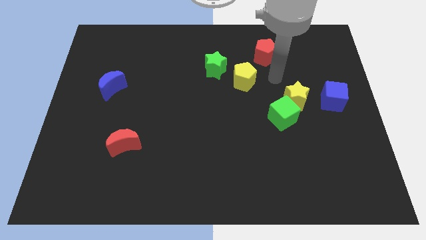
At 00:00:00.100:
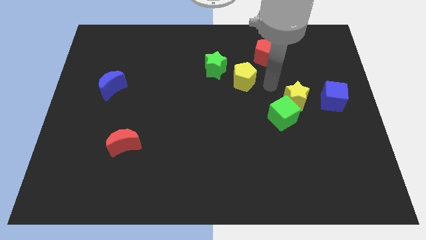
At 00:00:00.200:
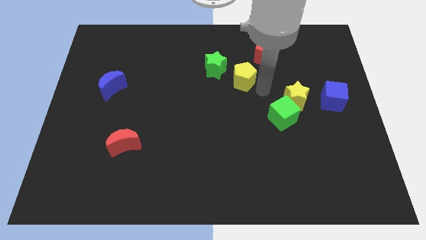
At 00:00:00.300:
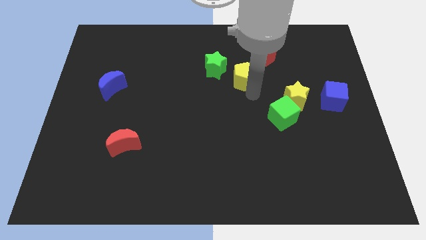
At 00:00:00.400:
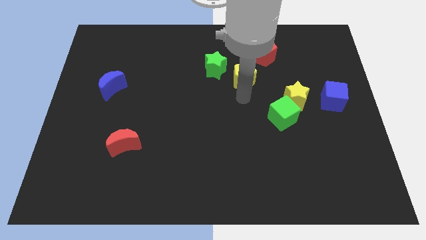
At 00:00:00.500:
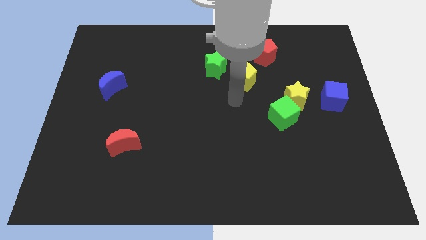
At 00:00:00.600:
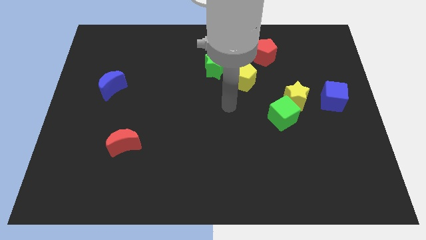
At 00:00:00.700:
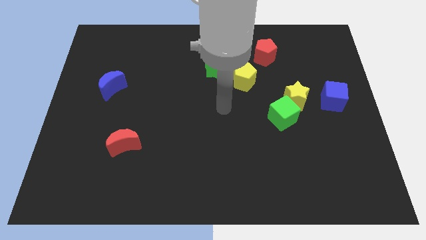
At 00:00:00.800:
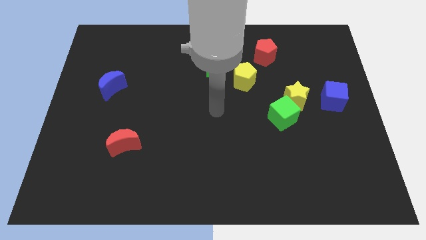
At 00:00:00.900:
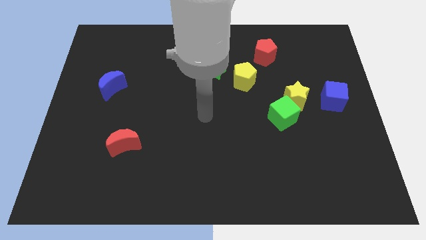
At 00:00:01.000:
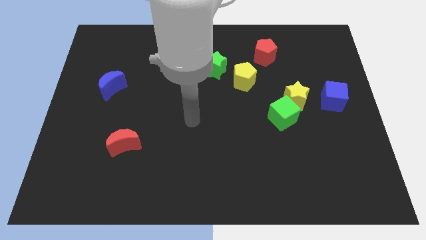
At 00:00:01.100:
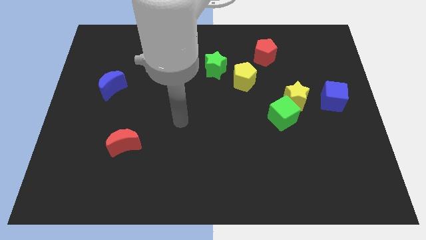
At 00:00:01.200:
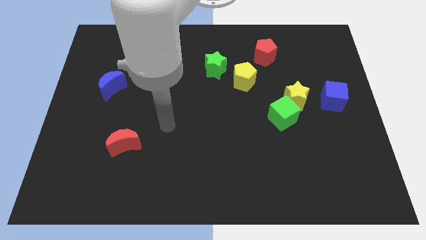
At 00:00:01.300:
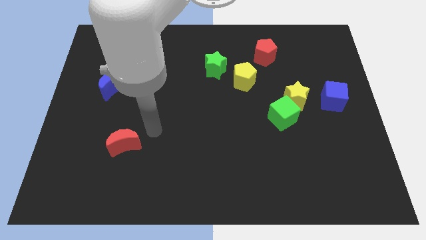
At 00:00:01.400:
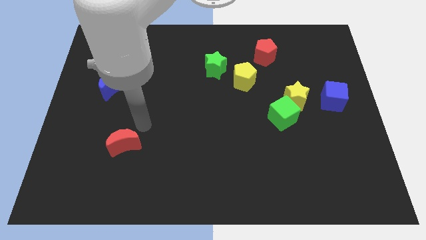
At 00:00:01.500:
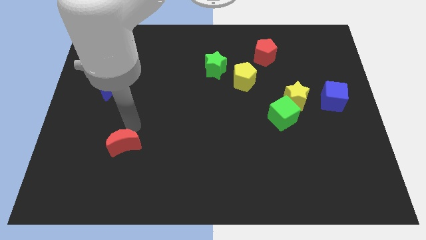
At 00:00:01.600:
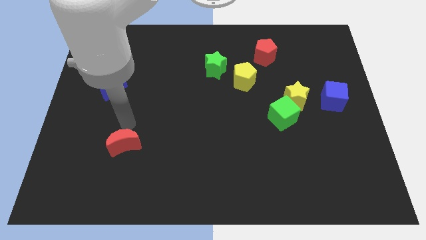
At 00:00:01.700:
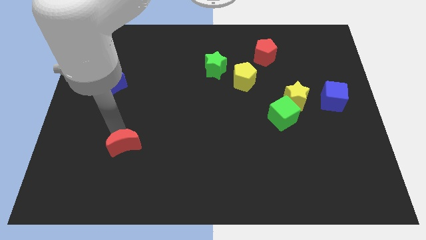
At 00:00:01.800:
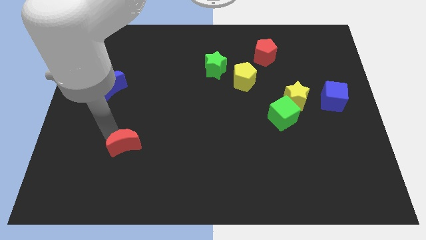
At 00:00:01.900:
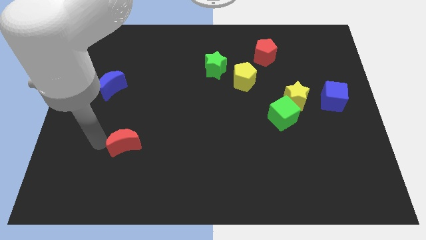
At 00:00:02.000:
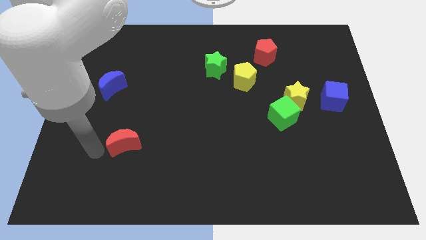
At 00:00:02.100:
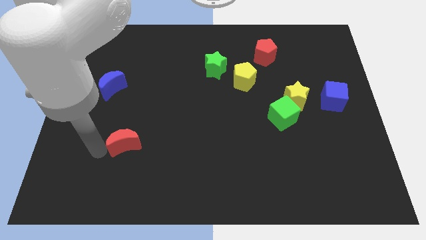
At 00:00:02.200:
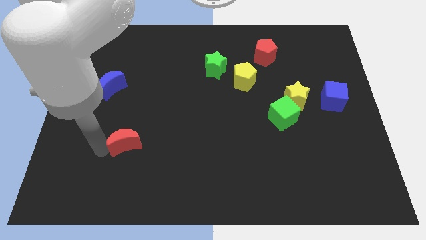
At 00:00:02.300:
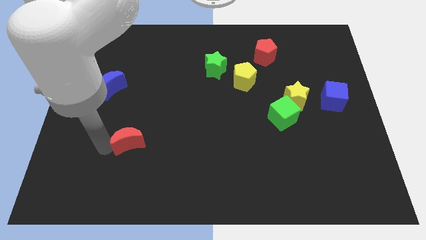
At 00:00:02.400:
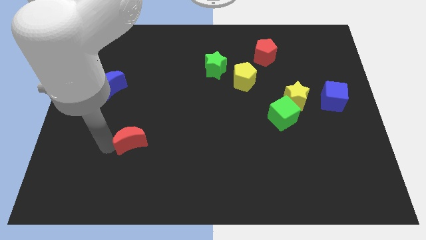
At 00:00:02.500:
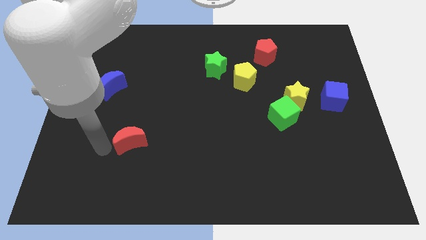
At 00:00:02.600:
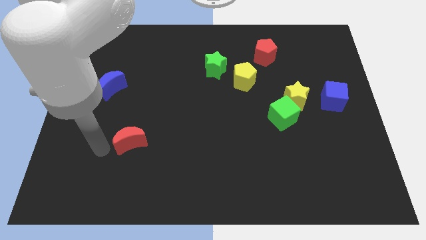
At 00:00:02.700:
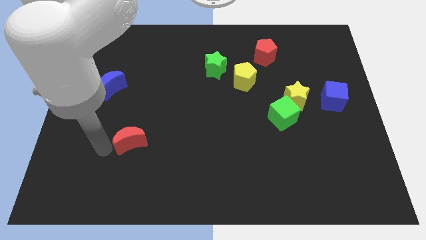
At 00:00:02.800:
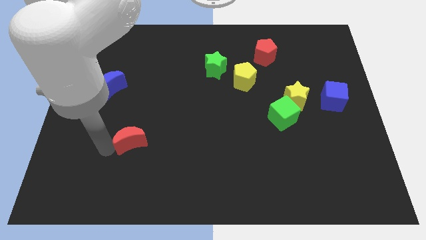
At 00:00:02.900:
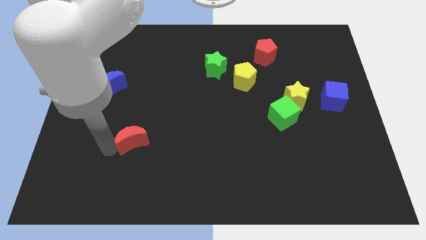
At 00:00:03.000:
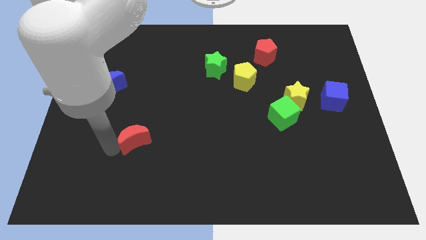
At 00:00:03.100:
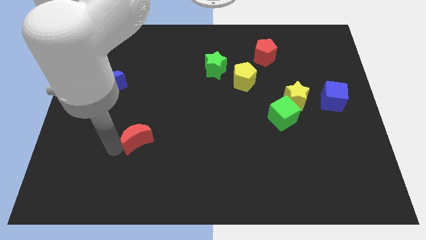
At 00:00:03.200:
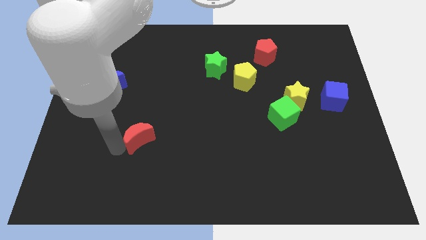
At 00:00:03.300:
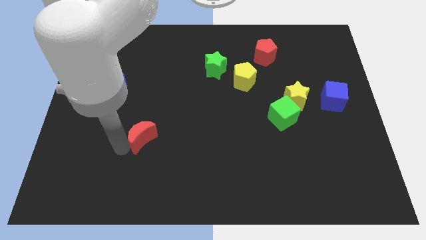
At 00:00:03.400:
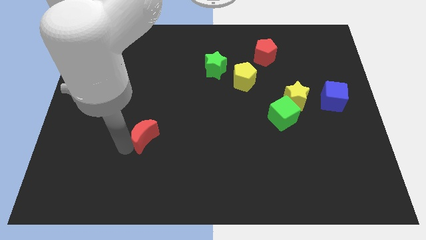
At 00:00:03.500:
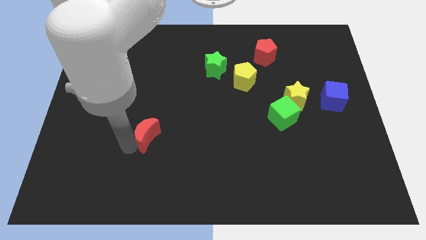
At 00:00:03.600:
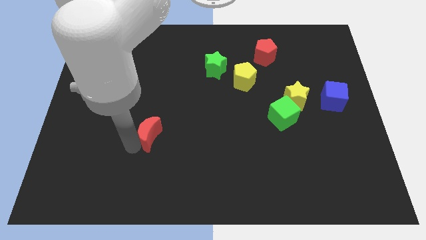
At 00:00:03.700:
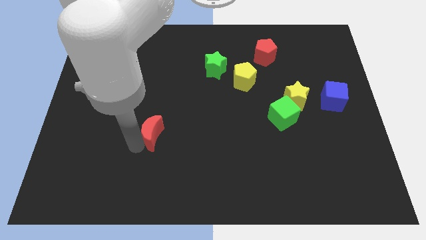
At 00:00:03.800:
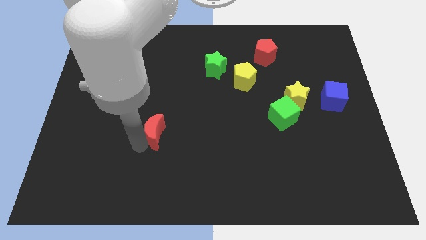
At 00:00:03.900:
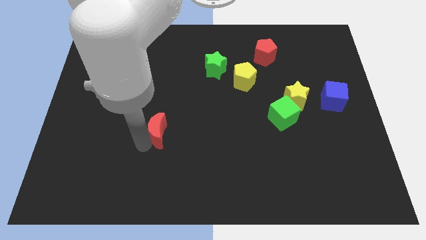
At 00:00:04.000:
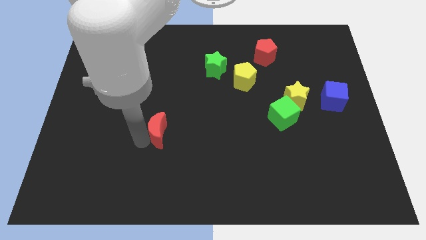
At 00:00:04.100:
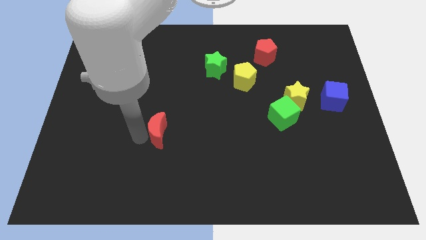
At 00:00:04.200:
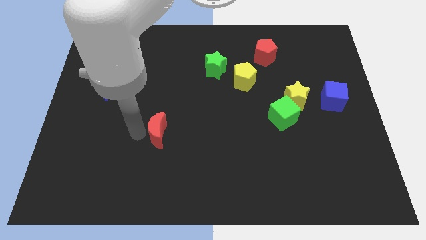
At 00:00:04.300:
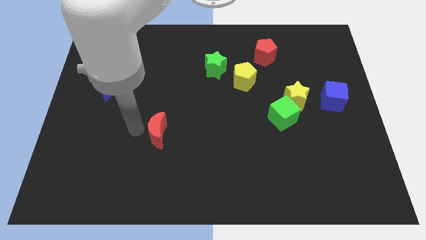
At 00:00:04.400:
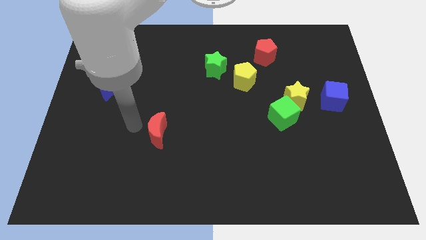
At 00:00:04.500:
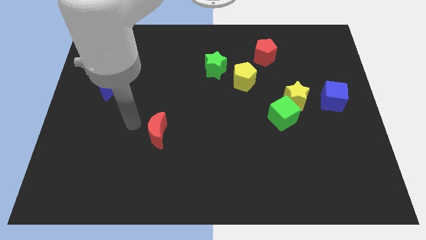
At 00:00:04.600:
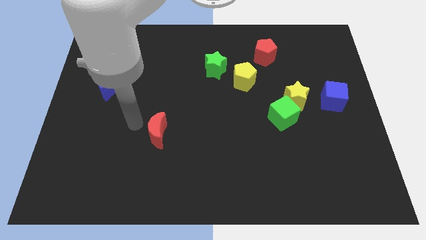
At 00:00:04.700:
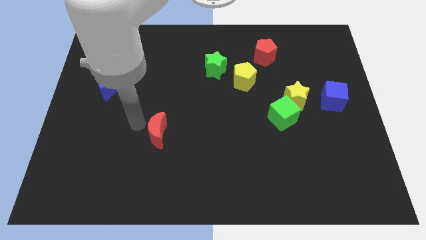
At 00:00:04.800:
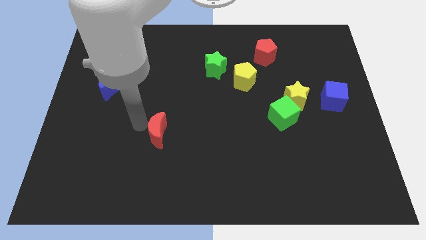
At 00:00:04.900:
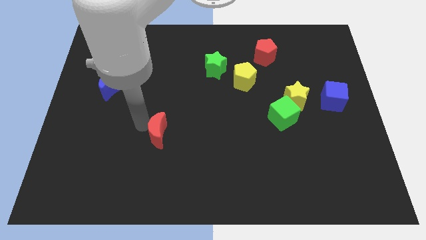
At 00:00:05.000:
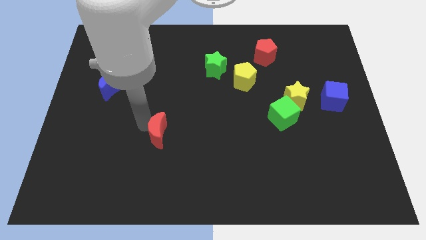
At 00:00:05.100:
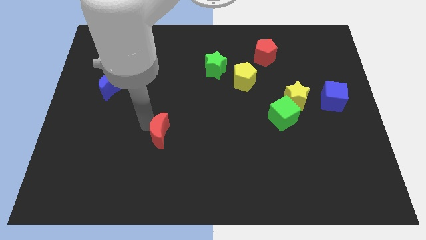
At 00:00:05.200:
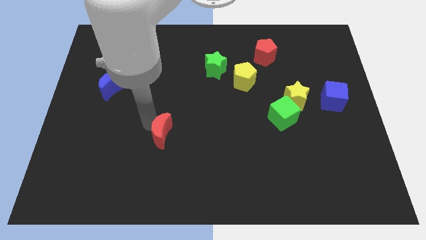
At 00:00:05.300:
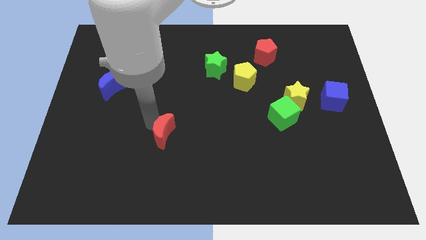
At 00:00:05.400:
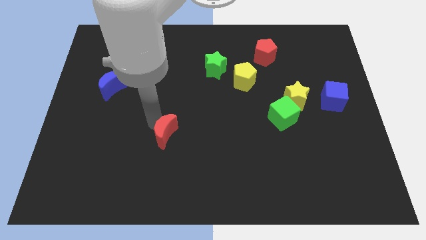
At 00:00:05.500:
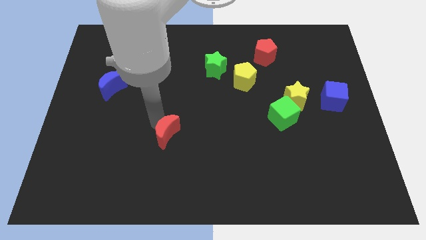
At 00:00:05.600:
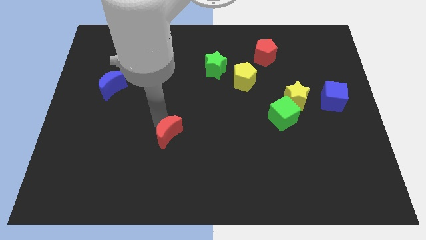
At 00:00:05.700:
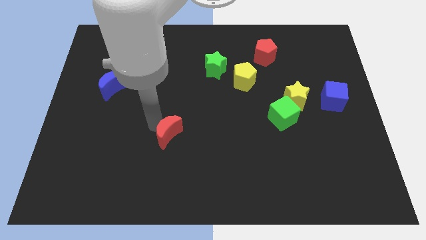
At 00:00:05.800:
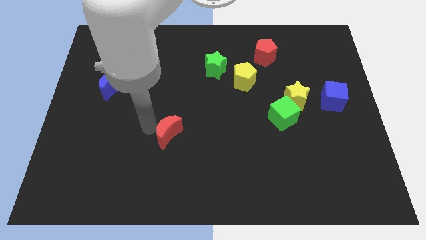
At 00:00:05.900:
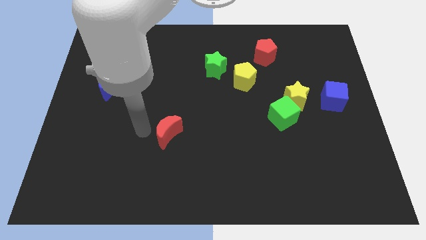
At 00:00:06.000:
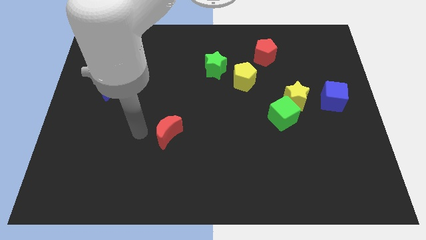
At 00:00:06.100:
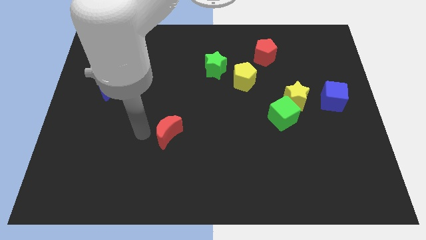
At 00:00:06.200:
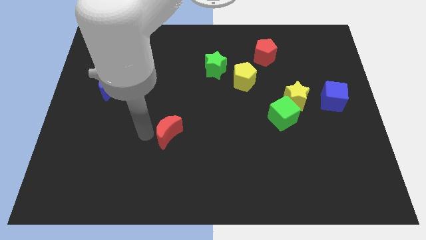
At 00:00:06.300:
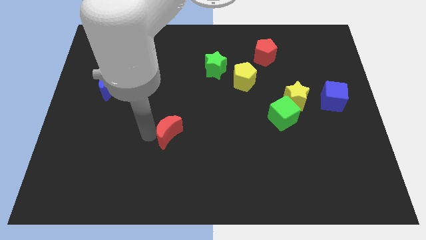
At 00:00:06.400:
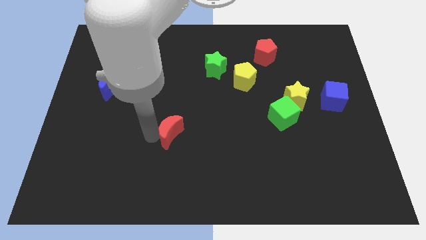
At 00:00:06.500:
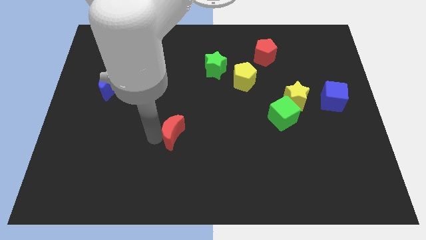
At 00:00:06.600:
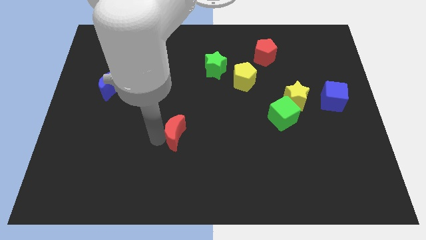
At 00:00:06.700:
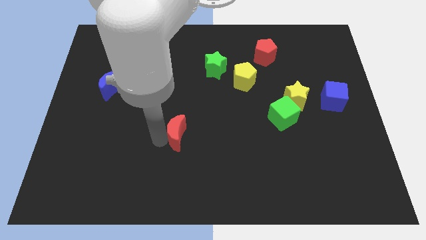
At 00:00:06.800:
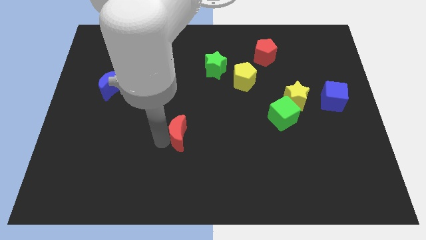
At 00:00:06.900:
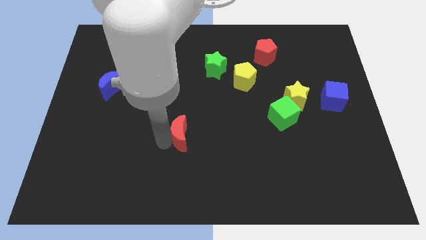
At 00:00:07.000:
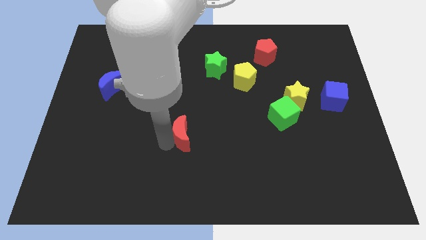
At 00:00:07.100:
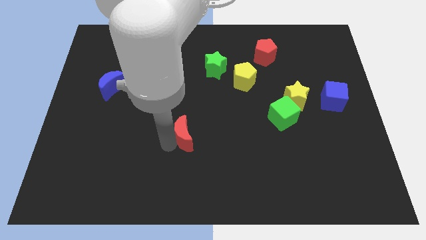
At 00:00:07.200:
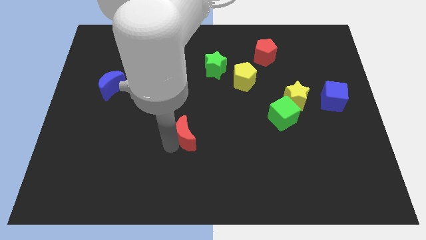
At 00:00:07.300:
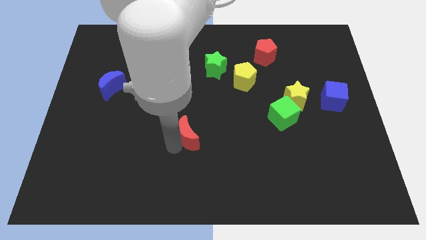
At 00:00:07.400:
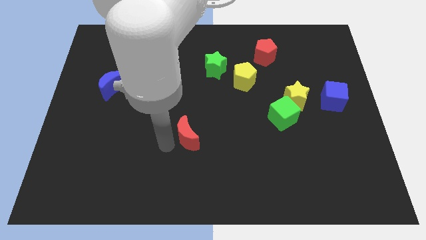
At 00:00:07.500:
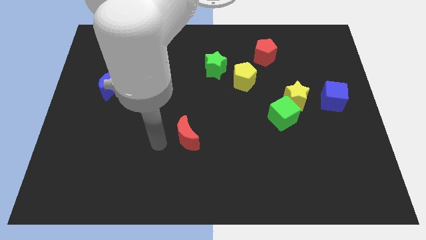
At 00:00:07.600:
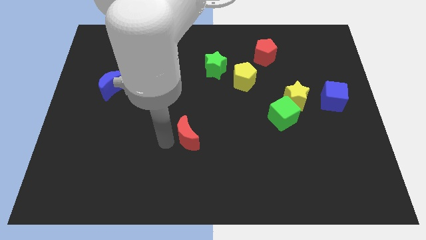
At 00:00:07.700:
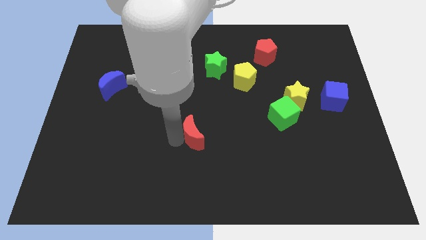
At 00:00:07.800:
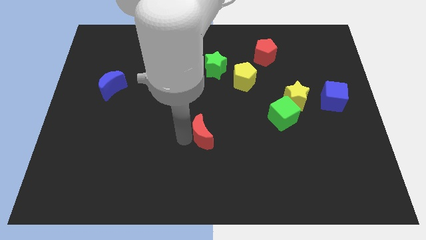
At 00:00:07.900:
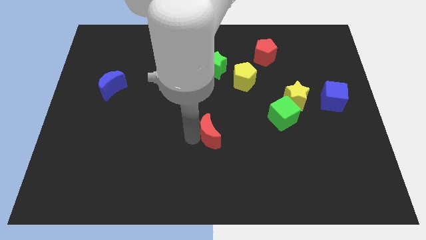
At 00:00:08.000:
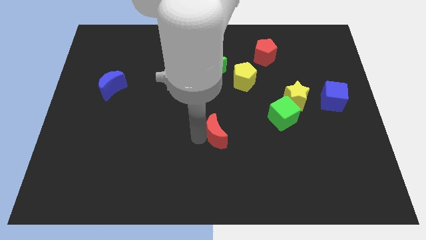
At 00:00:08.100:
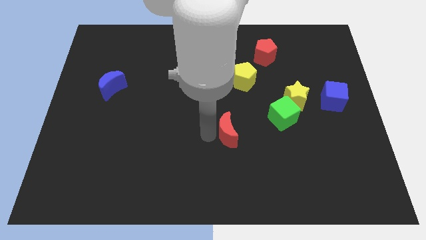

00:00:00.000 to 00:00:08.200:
move the red moon to the right
